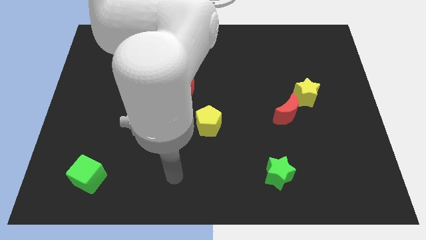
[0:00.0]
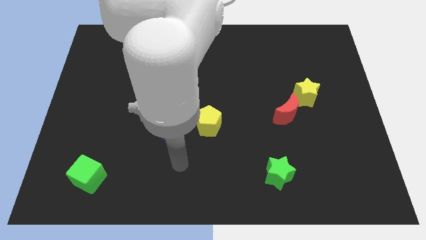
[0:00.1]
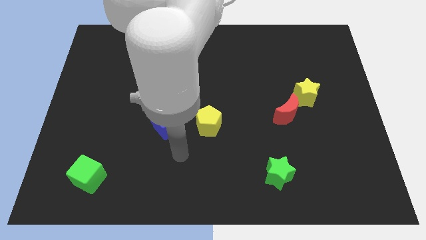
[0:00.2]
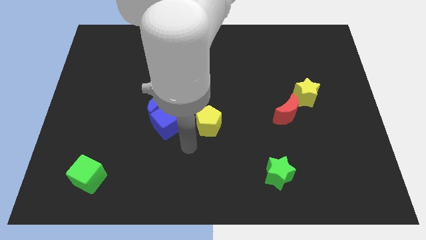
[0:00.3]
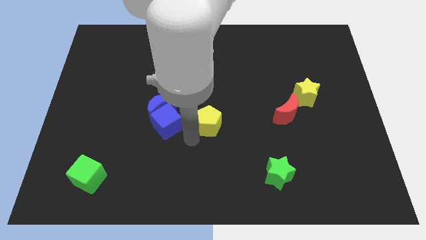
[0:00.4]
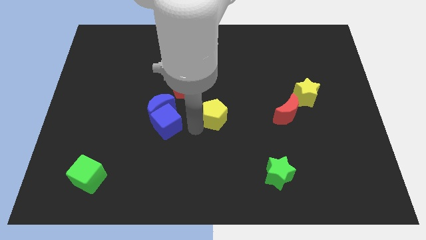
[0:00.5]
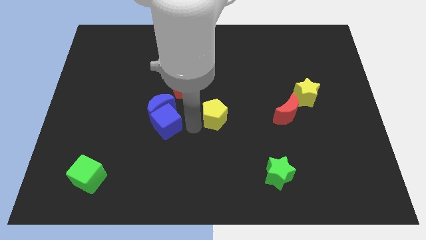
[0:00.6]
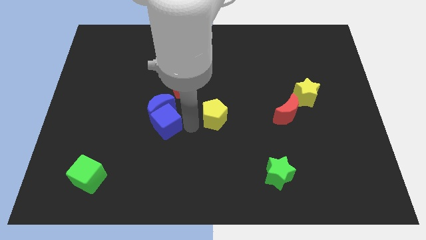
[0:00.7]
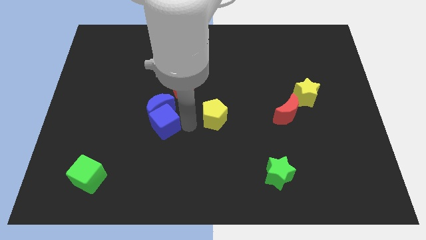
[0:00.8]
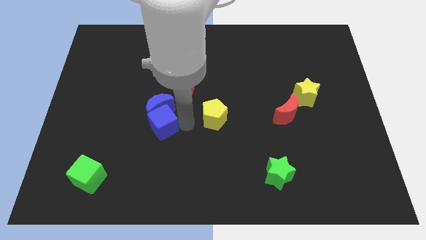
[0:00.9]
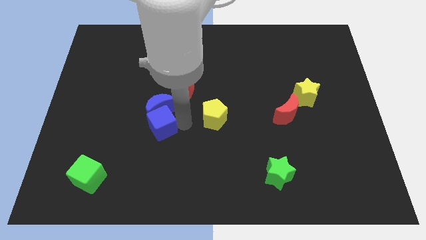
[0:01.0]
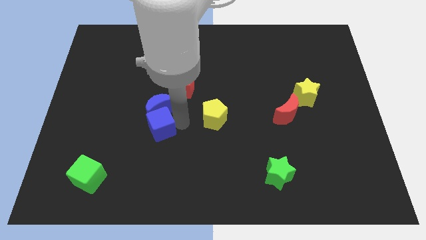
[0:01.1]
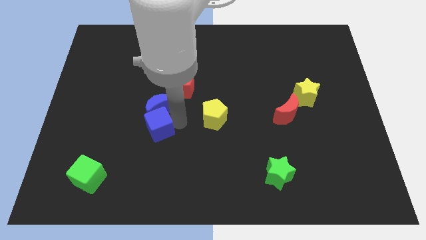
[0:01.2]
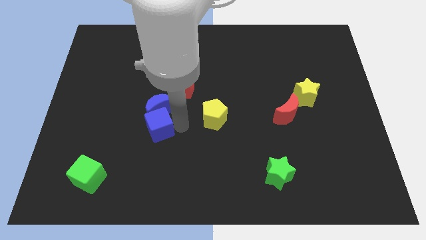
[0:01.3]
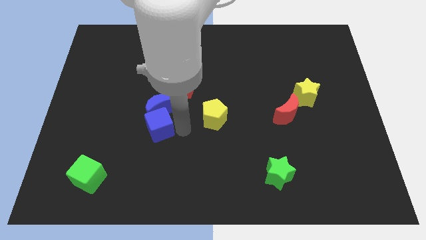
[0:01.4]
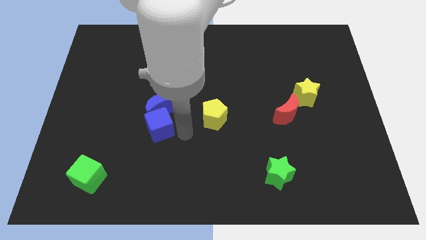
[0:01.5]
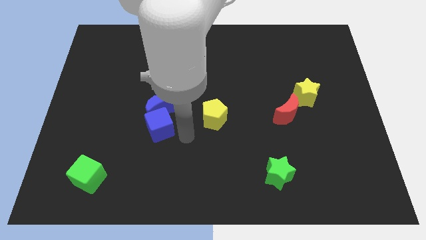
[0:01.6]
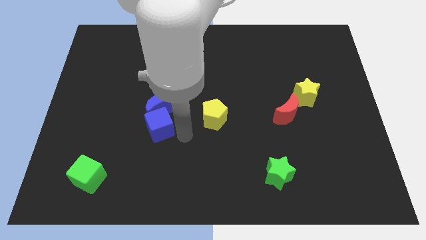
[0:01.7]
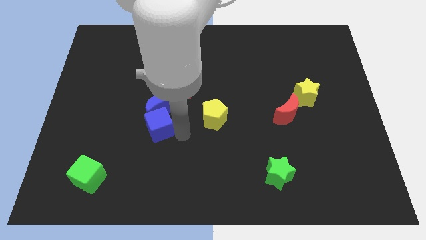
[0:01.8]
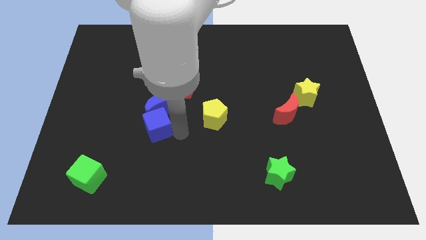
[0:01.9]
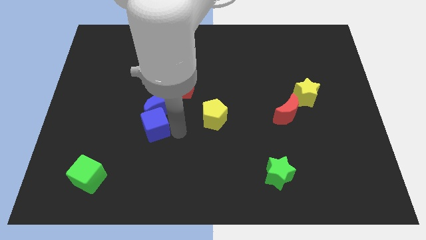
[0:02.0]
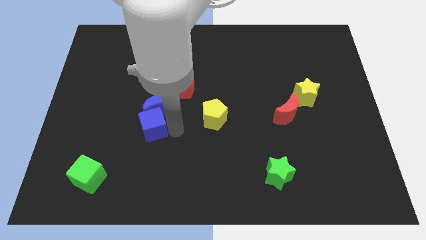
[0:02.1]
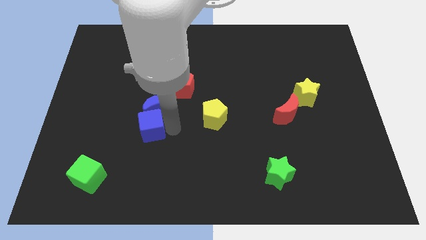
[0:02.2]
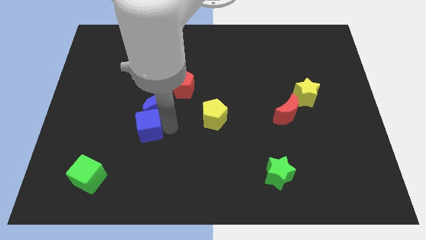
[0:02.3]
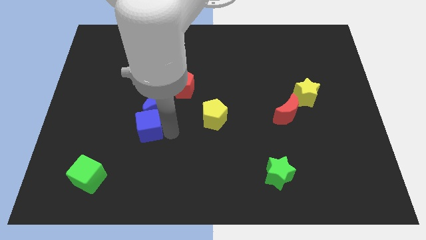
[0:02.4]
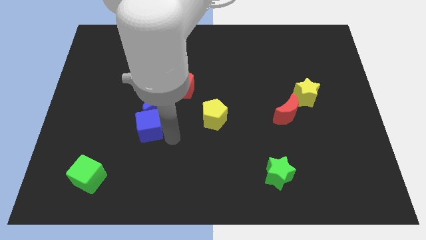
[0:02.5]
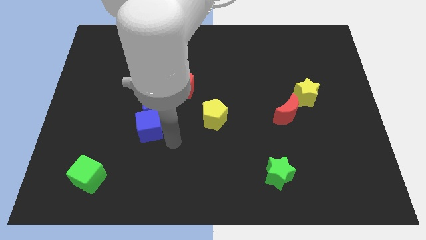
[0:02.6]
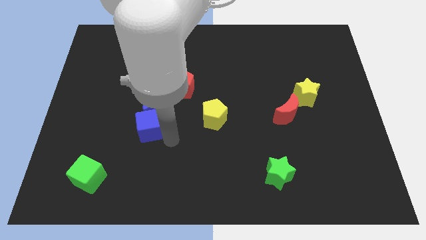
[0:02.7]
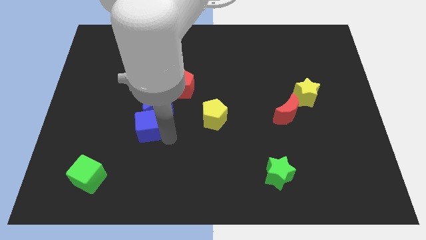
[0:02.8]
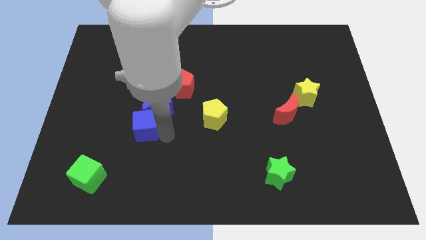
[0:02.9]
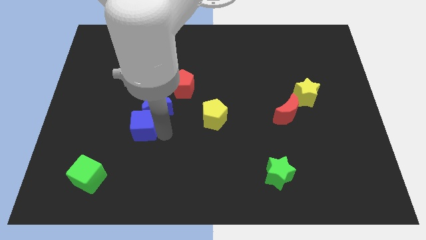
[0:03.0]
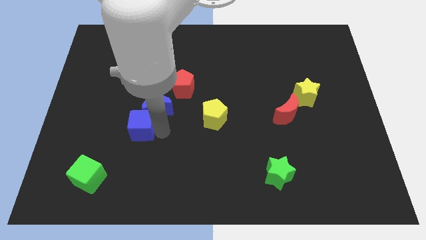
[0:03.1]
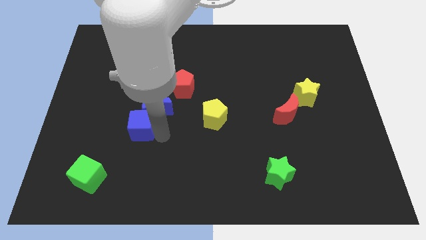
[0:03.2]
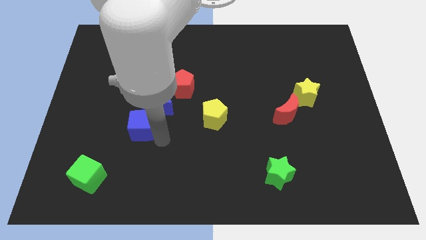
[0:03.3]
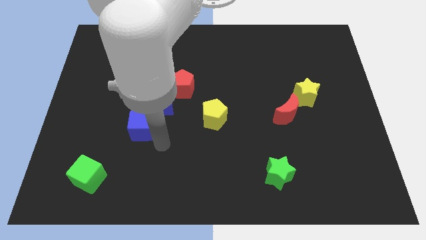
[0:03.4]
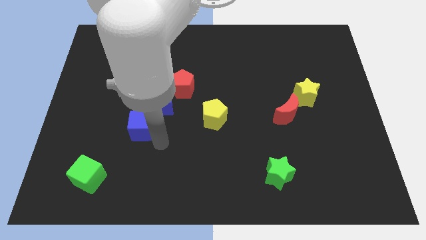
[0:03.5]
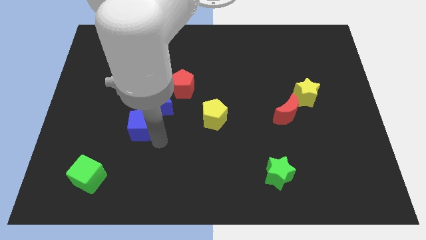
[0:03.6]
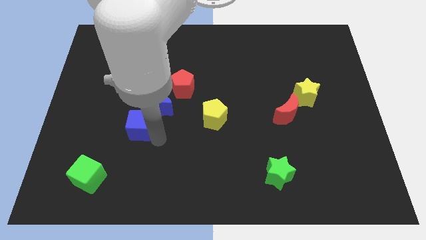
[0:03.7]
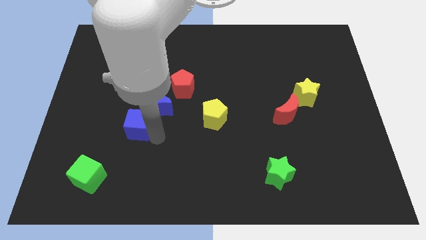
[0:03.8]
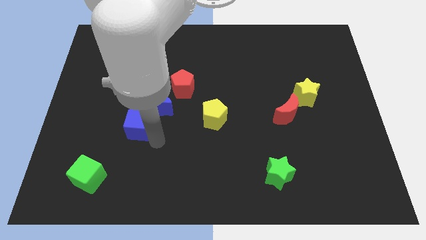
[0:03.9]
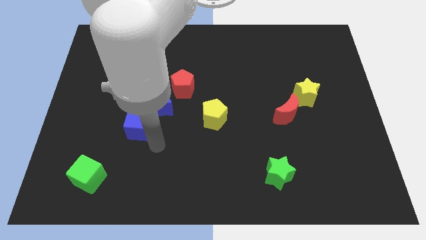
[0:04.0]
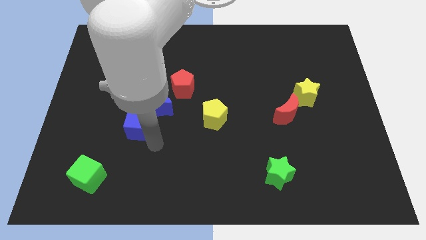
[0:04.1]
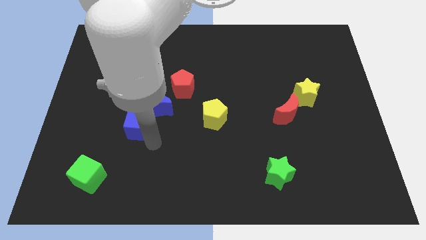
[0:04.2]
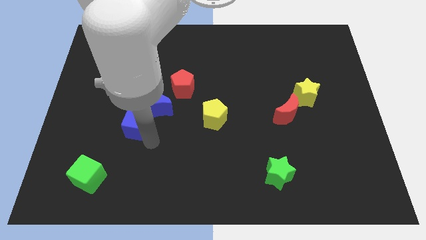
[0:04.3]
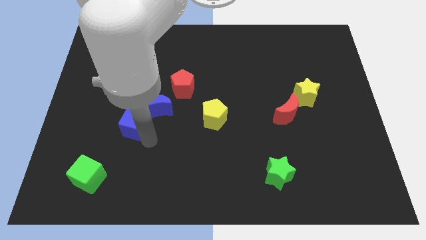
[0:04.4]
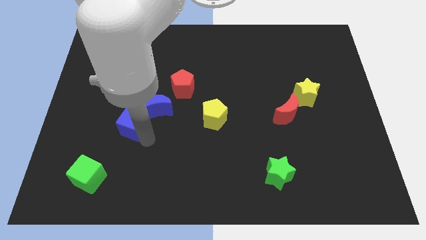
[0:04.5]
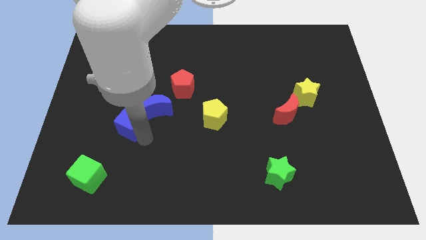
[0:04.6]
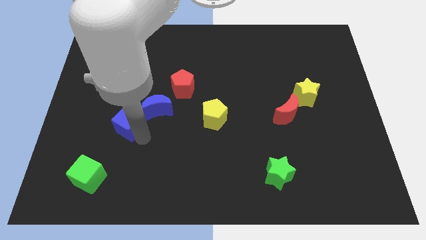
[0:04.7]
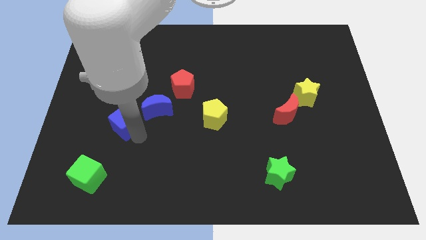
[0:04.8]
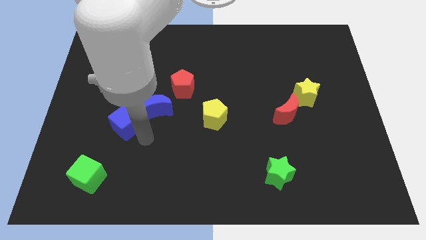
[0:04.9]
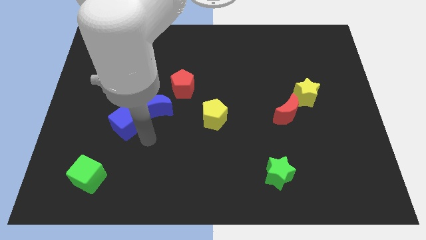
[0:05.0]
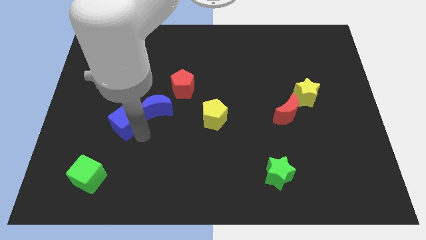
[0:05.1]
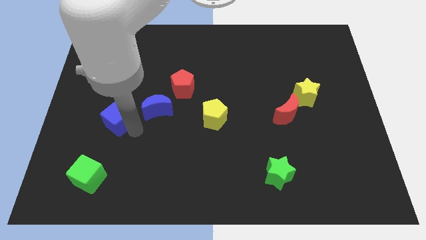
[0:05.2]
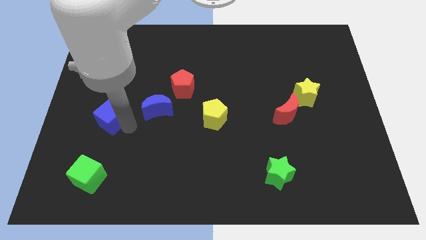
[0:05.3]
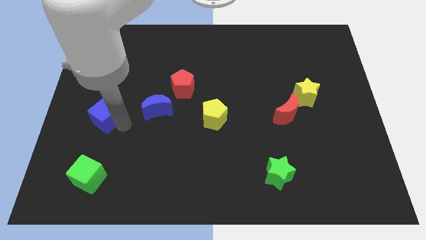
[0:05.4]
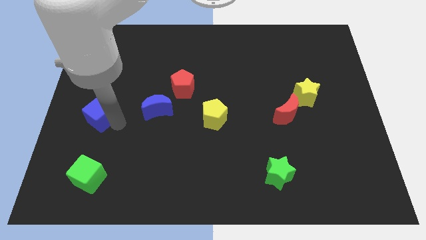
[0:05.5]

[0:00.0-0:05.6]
slide the blue cube to the left side

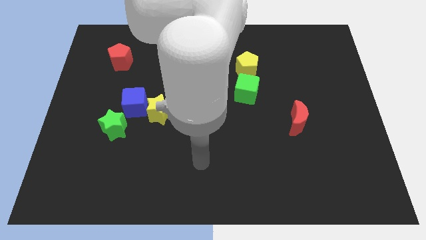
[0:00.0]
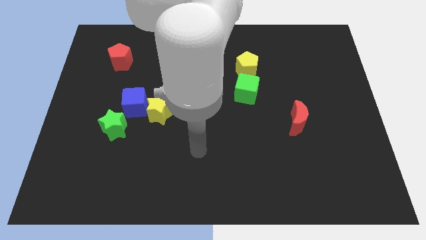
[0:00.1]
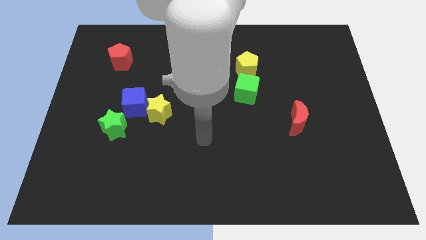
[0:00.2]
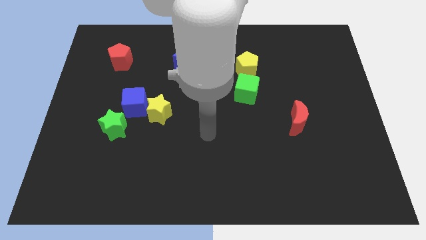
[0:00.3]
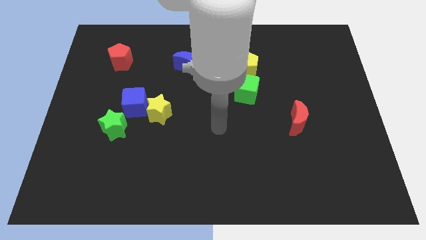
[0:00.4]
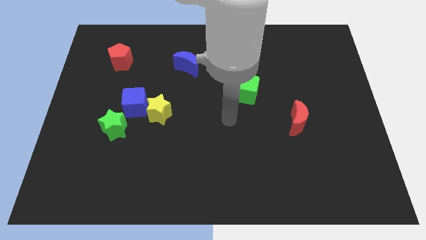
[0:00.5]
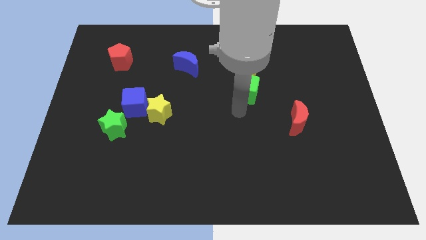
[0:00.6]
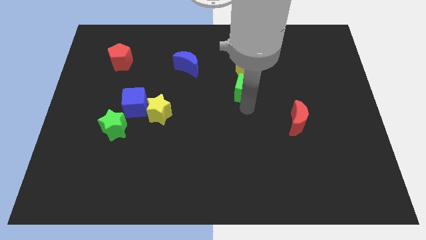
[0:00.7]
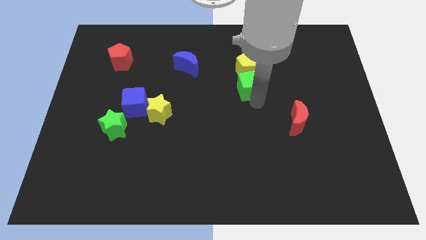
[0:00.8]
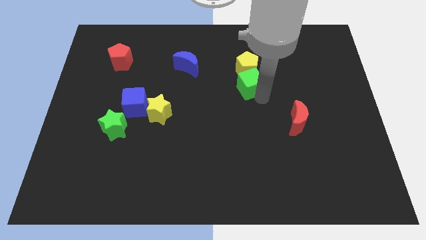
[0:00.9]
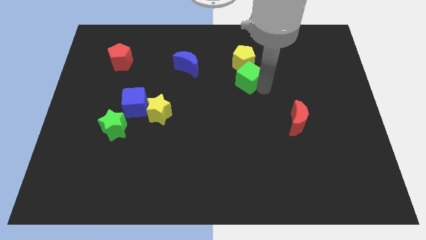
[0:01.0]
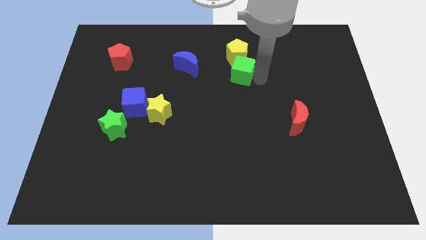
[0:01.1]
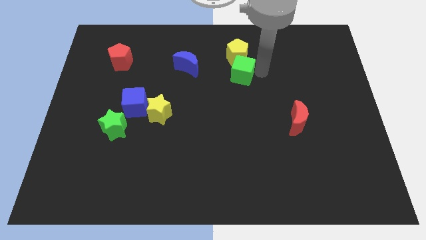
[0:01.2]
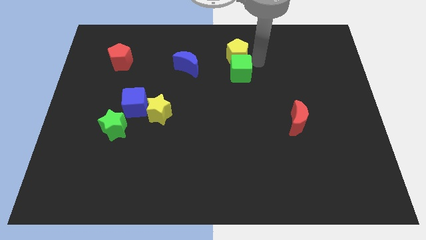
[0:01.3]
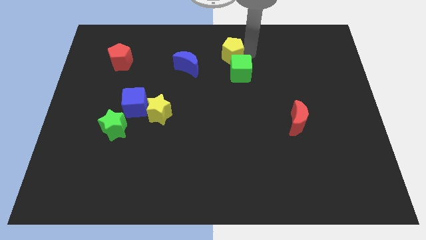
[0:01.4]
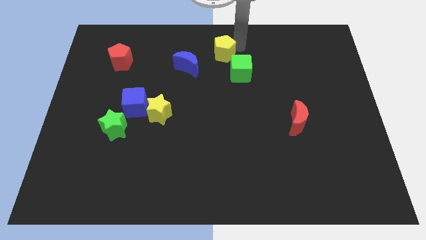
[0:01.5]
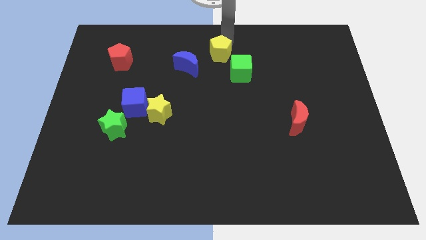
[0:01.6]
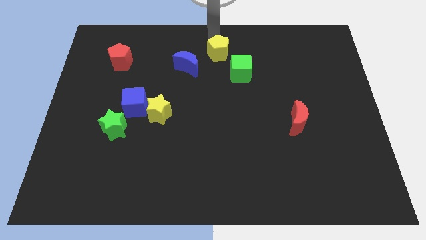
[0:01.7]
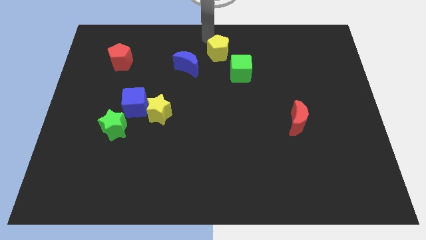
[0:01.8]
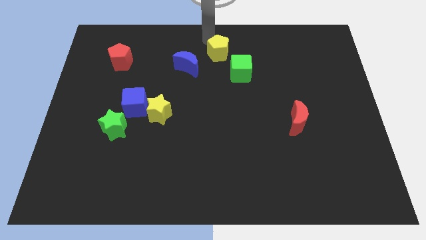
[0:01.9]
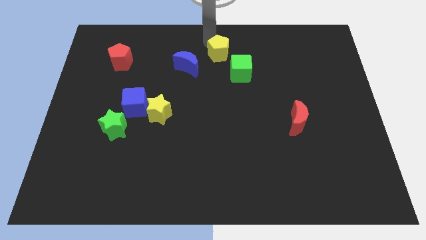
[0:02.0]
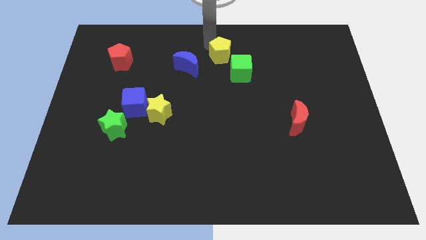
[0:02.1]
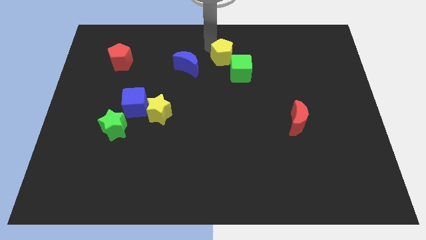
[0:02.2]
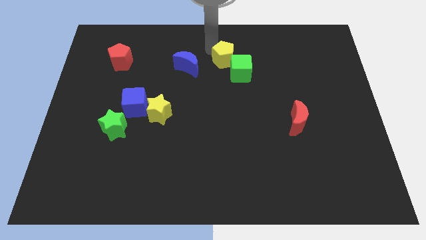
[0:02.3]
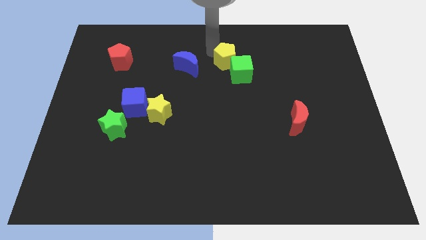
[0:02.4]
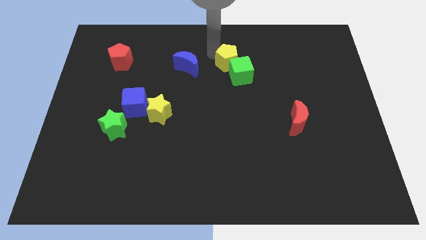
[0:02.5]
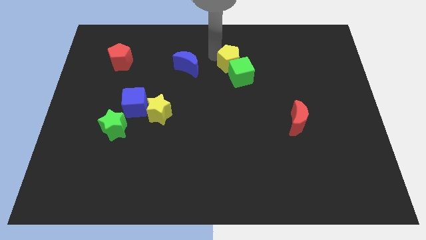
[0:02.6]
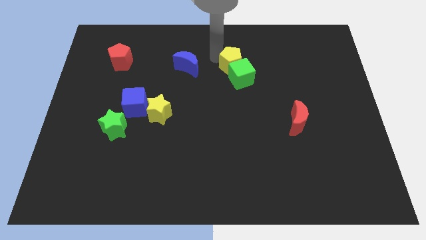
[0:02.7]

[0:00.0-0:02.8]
push the yellow pentagon to the center
